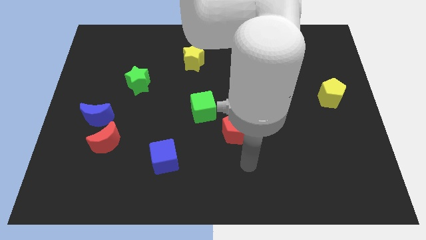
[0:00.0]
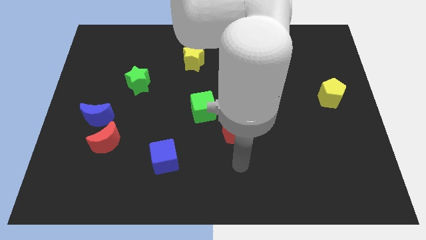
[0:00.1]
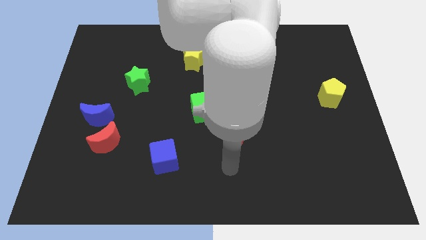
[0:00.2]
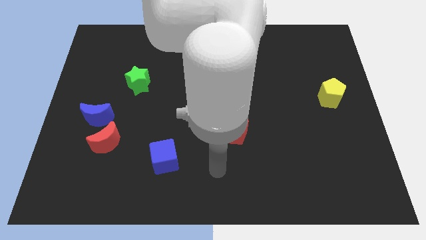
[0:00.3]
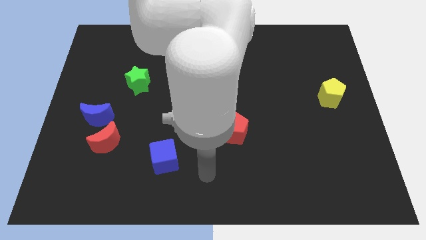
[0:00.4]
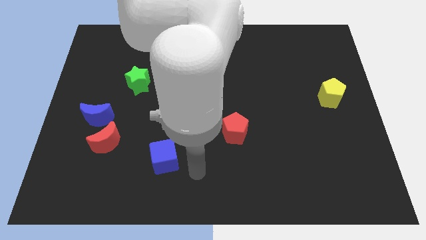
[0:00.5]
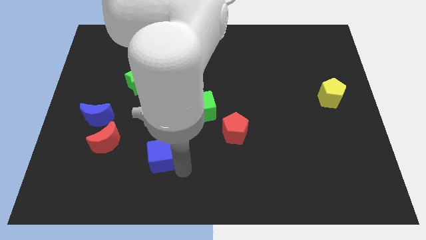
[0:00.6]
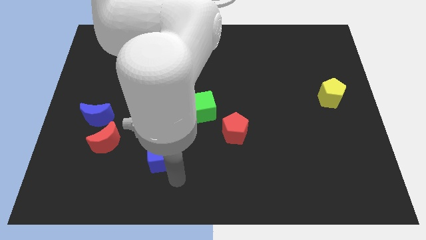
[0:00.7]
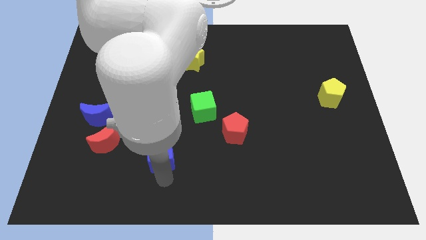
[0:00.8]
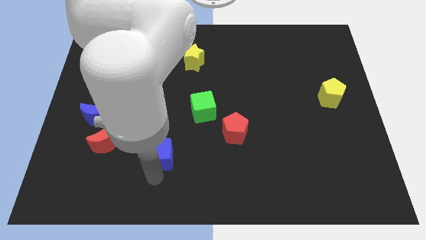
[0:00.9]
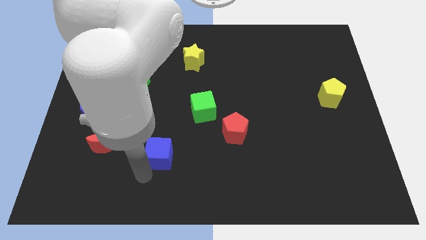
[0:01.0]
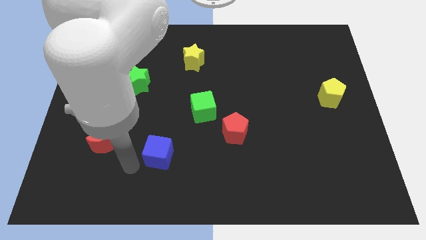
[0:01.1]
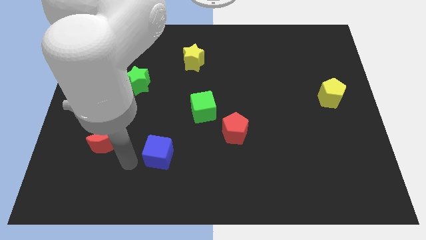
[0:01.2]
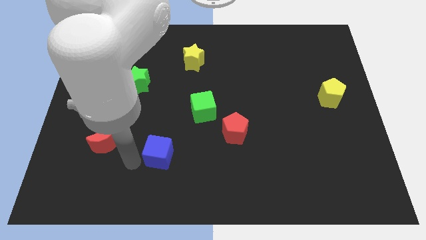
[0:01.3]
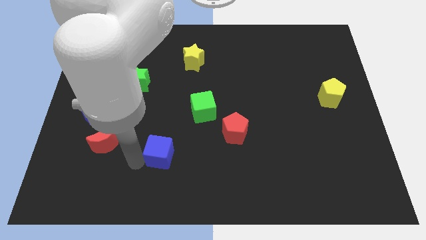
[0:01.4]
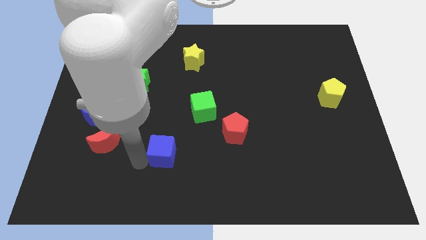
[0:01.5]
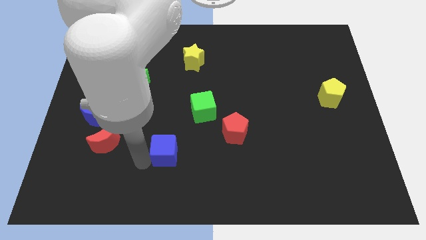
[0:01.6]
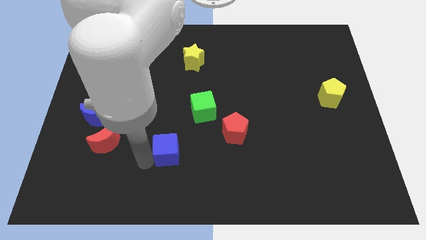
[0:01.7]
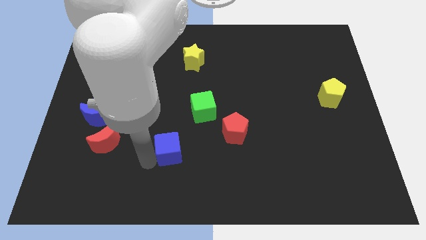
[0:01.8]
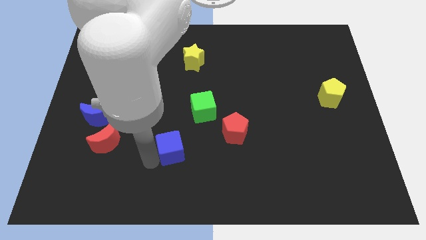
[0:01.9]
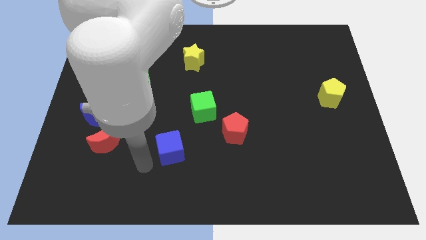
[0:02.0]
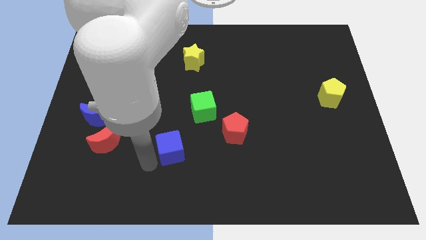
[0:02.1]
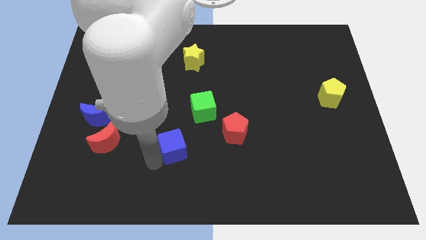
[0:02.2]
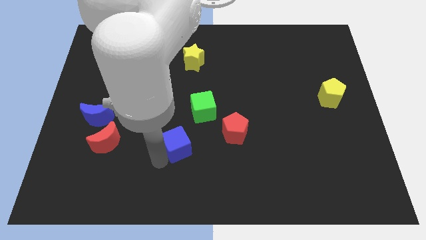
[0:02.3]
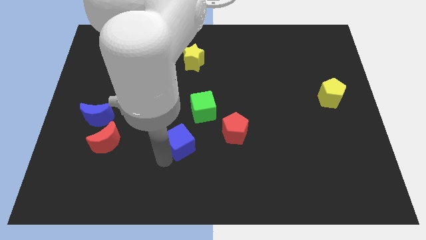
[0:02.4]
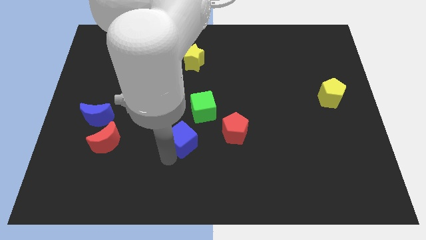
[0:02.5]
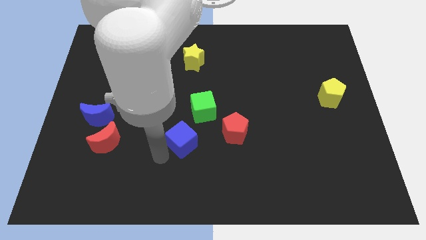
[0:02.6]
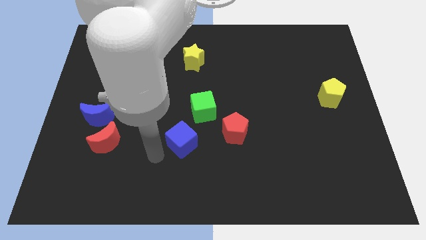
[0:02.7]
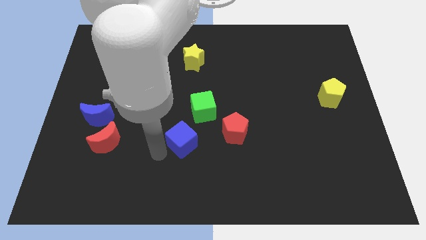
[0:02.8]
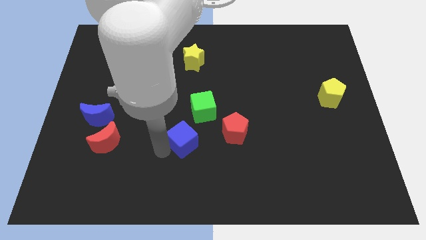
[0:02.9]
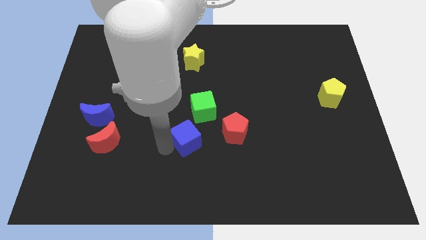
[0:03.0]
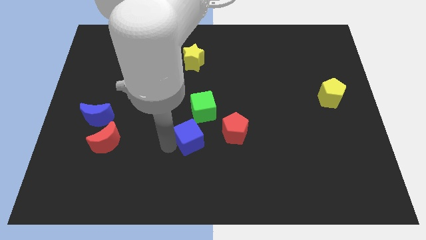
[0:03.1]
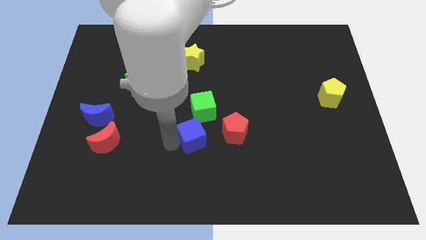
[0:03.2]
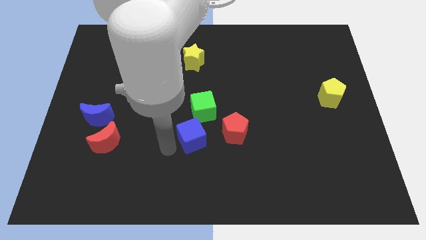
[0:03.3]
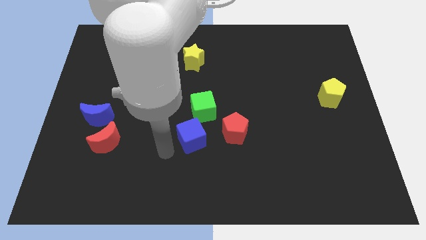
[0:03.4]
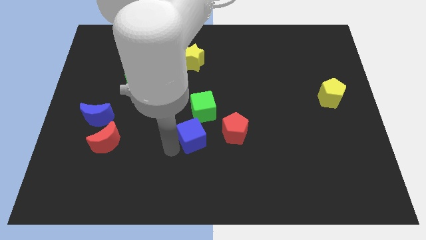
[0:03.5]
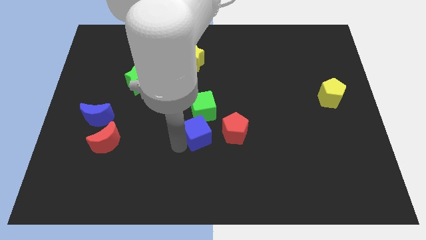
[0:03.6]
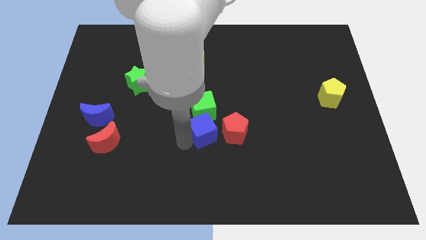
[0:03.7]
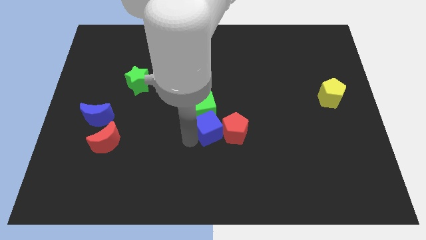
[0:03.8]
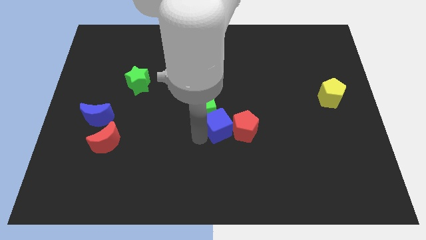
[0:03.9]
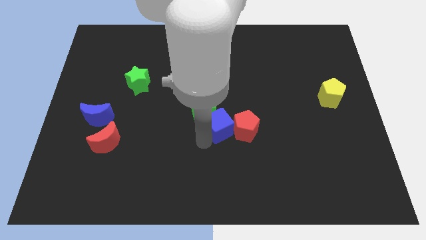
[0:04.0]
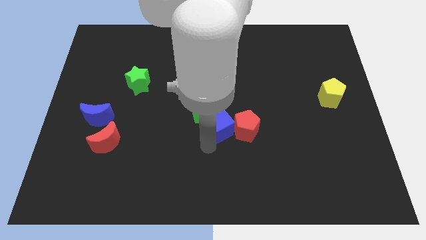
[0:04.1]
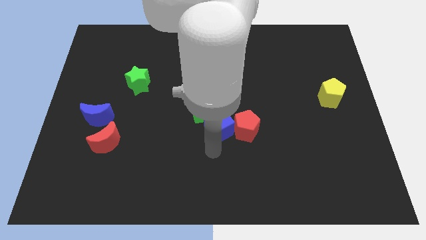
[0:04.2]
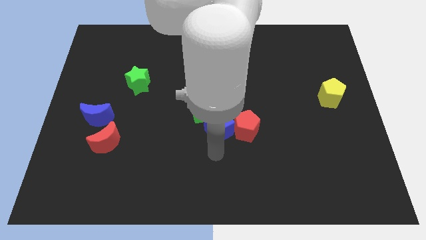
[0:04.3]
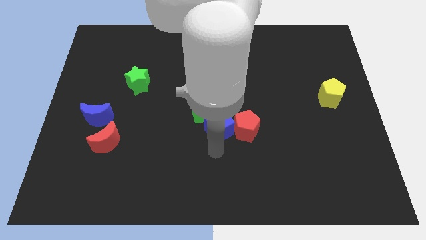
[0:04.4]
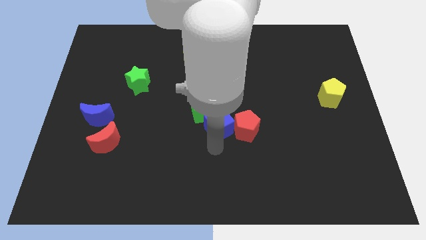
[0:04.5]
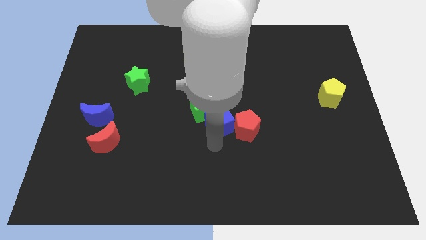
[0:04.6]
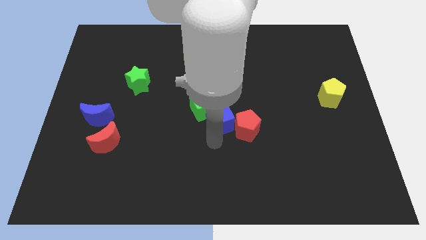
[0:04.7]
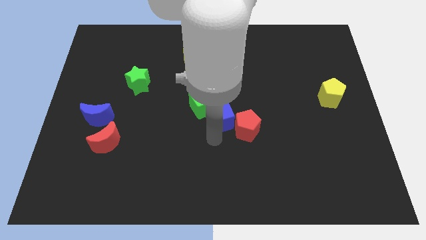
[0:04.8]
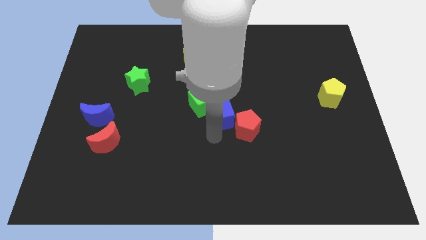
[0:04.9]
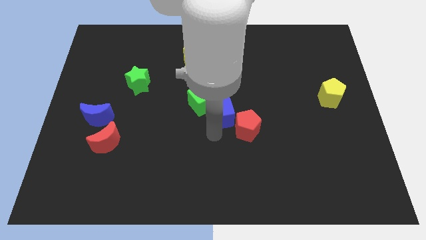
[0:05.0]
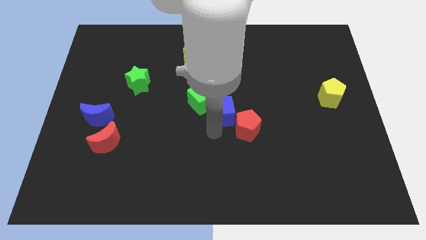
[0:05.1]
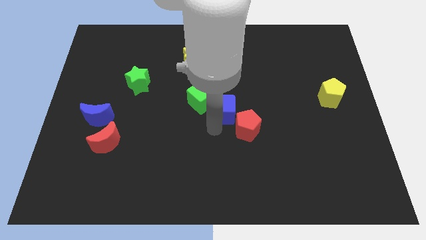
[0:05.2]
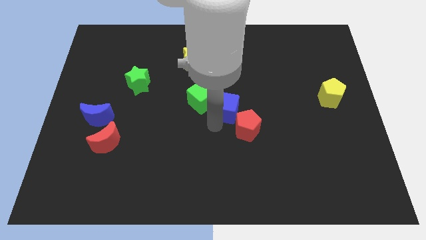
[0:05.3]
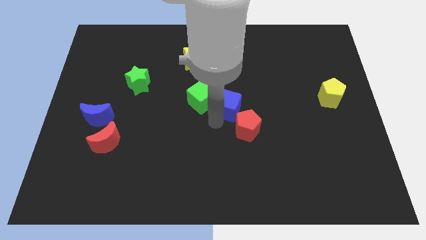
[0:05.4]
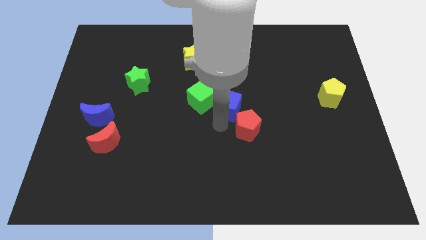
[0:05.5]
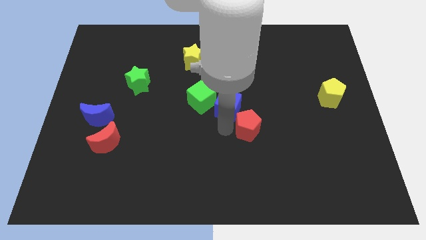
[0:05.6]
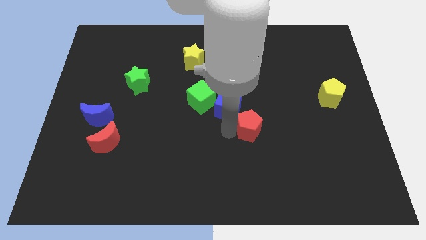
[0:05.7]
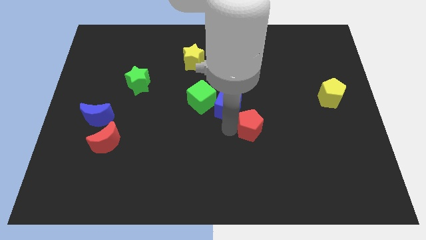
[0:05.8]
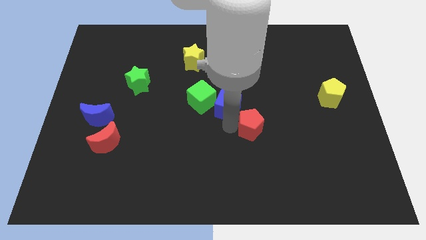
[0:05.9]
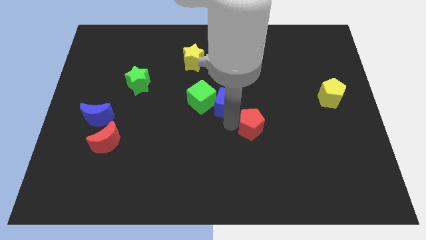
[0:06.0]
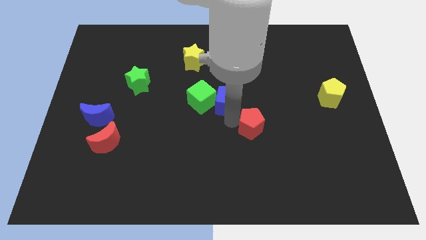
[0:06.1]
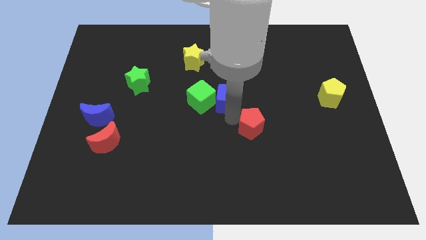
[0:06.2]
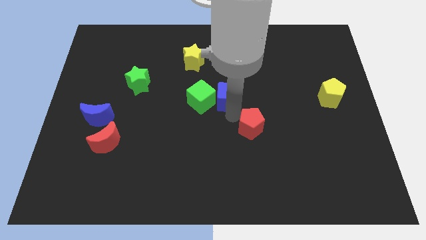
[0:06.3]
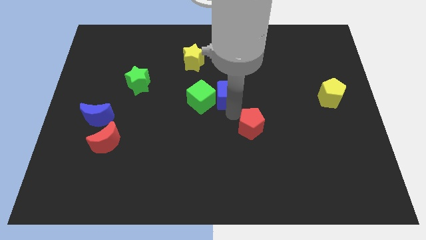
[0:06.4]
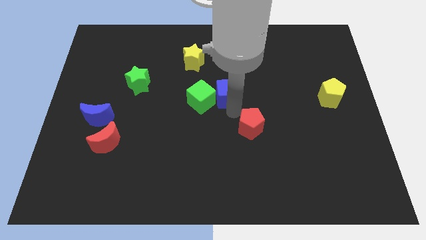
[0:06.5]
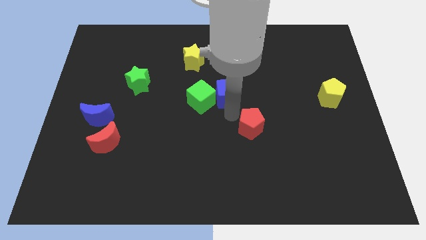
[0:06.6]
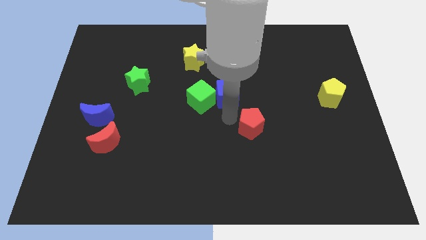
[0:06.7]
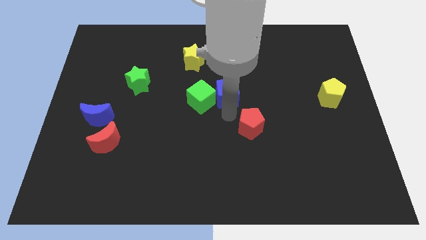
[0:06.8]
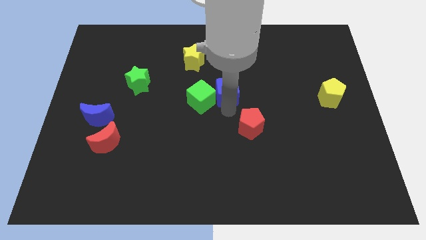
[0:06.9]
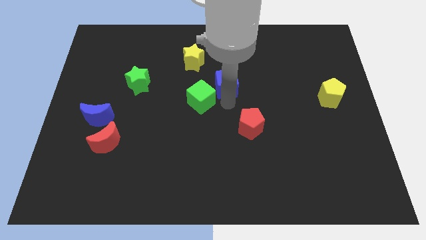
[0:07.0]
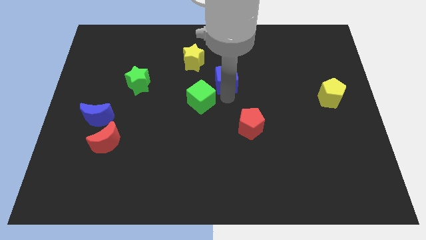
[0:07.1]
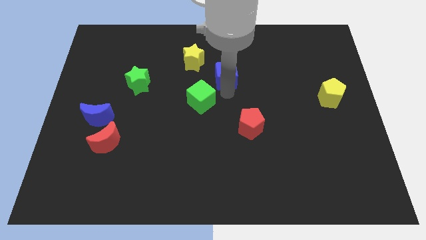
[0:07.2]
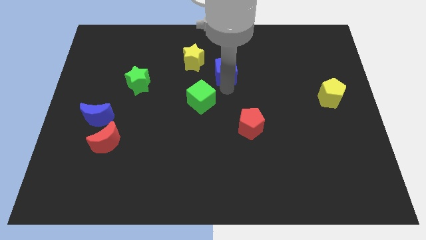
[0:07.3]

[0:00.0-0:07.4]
slide the blue cube to the right of the yellow star

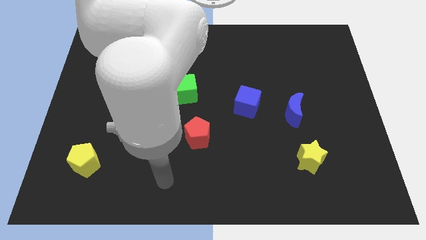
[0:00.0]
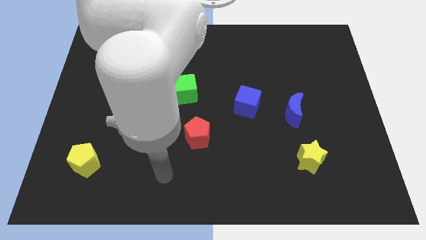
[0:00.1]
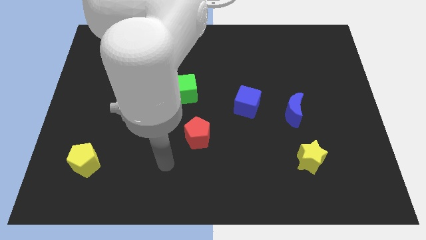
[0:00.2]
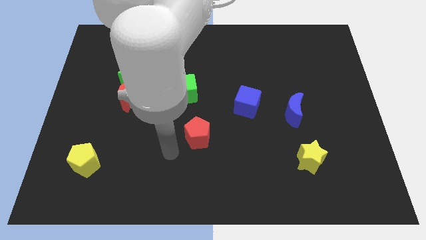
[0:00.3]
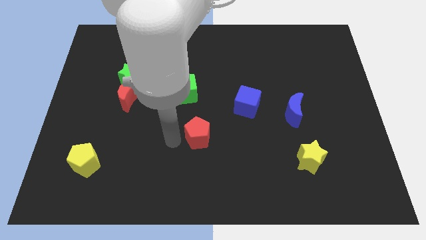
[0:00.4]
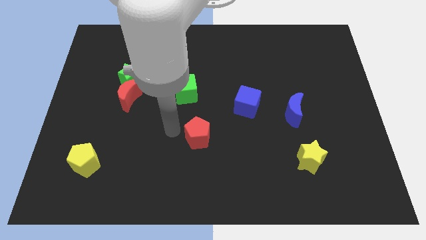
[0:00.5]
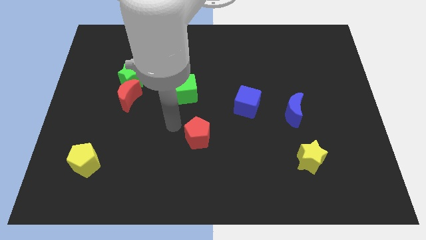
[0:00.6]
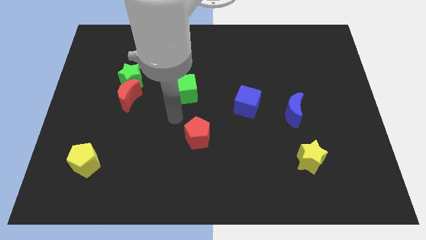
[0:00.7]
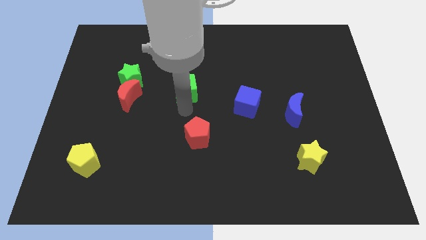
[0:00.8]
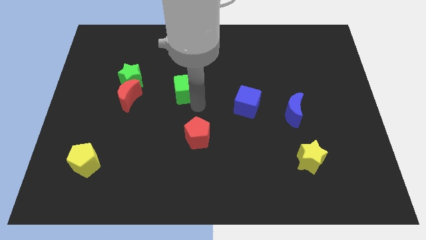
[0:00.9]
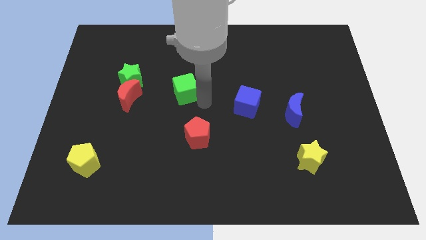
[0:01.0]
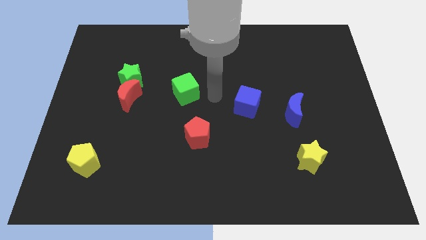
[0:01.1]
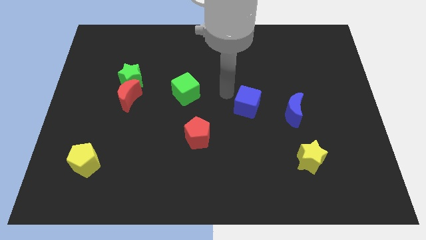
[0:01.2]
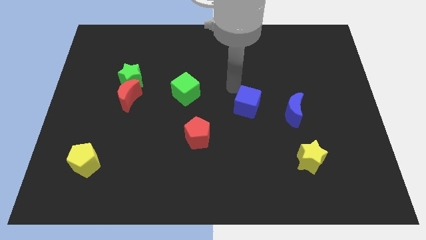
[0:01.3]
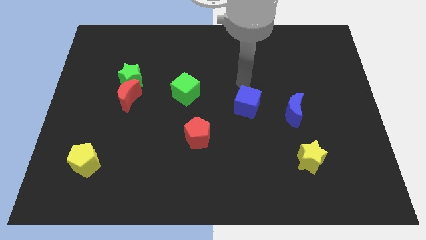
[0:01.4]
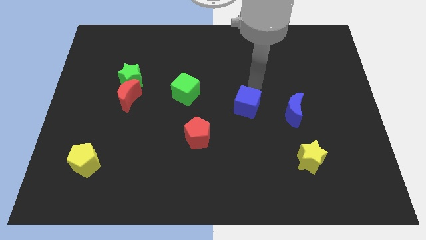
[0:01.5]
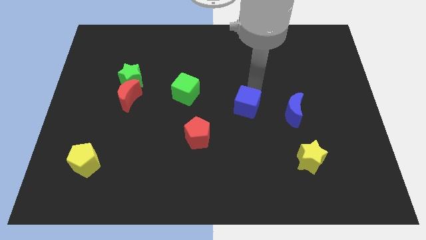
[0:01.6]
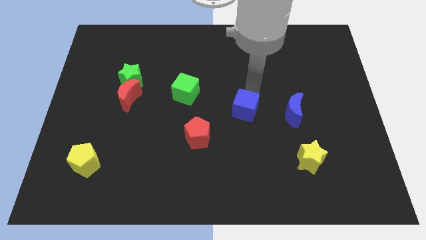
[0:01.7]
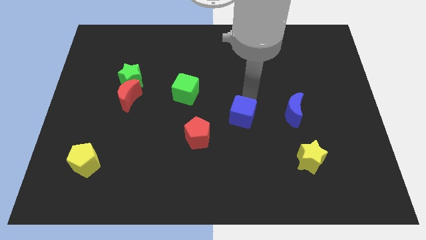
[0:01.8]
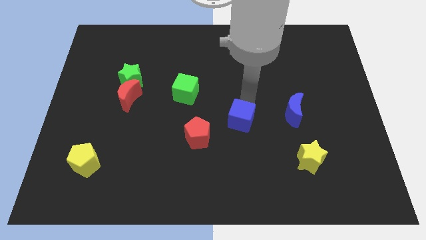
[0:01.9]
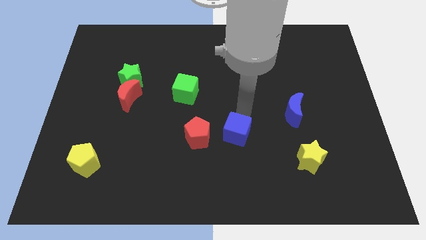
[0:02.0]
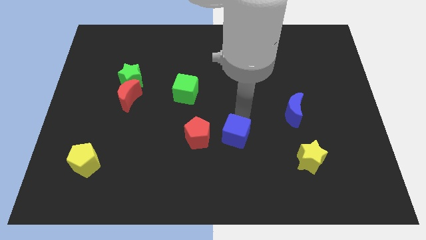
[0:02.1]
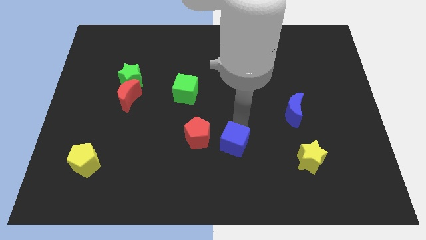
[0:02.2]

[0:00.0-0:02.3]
move the blue cube to the bottom right of the red pentagon
